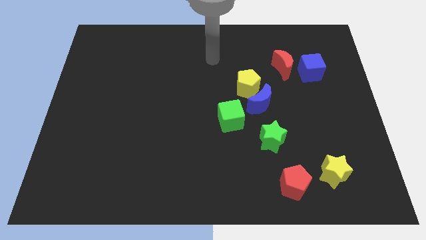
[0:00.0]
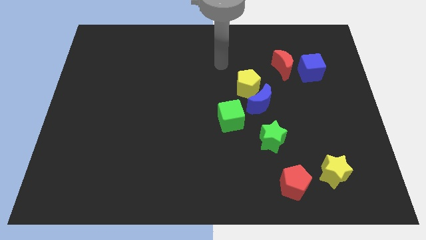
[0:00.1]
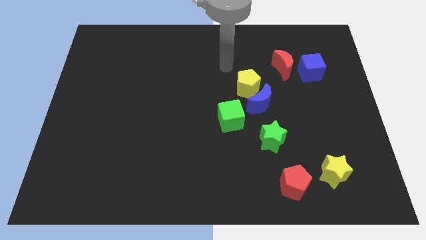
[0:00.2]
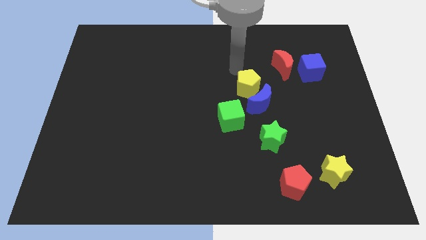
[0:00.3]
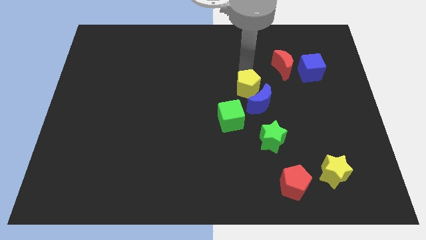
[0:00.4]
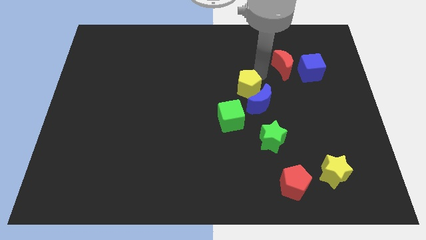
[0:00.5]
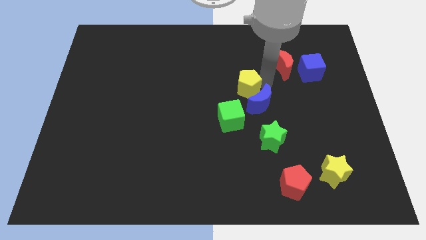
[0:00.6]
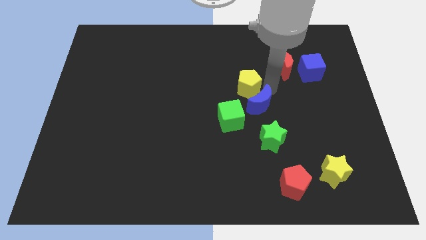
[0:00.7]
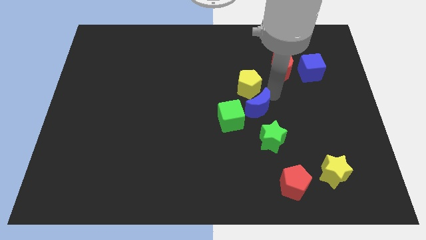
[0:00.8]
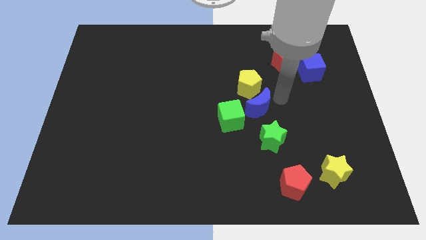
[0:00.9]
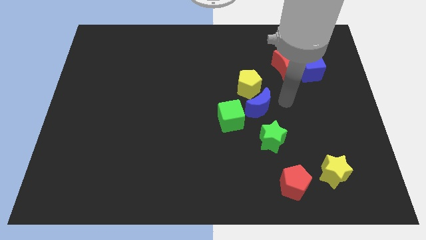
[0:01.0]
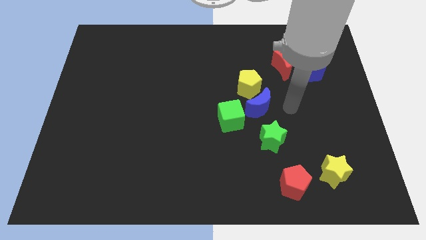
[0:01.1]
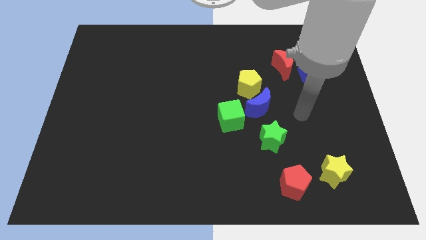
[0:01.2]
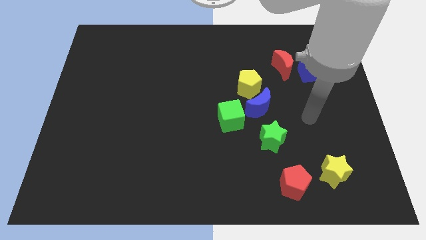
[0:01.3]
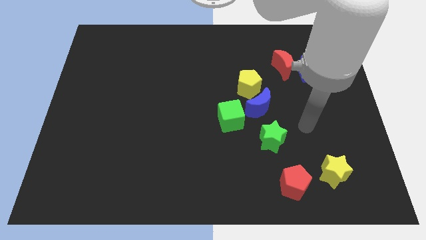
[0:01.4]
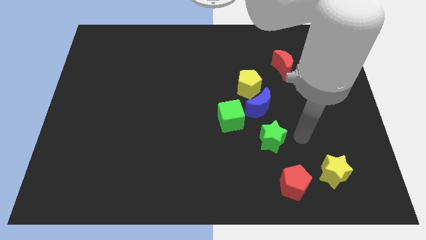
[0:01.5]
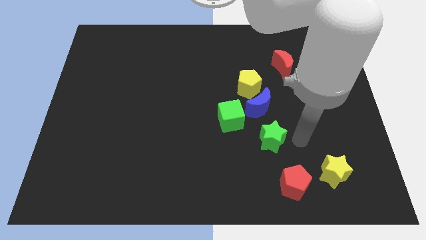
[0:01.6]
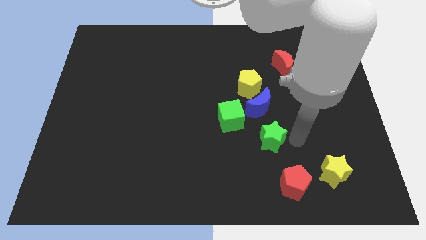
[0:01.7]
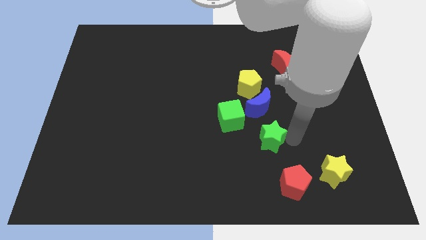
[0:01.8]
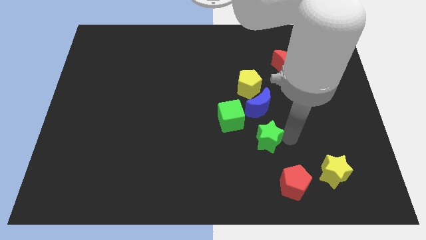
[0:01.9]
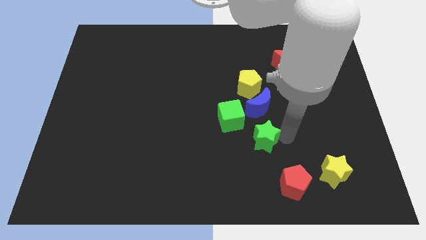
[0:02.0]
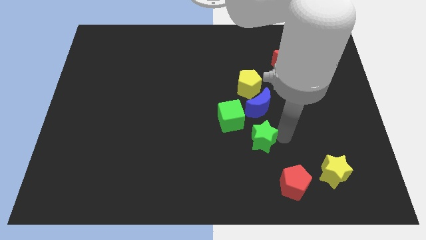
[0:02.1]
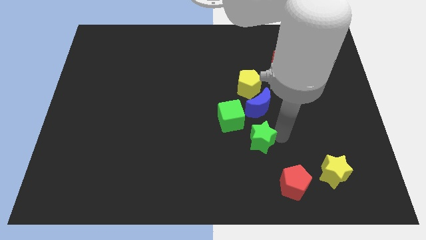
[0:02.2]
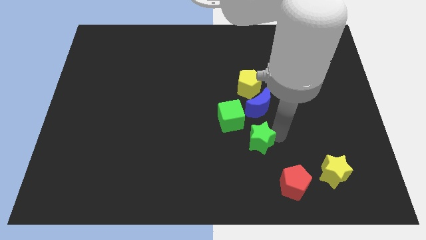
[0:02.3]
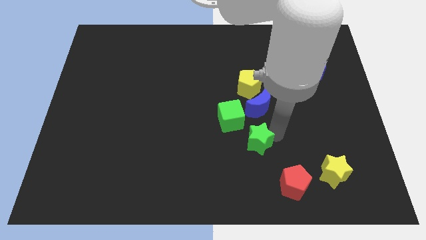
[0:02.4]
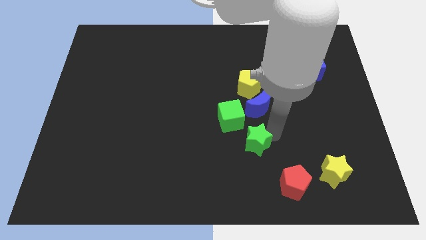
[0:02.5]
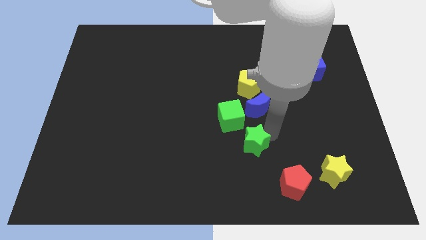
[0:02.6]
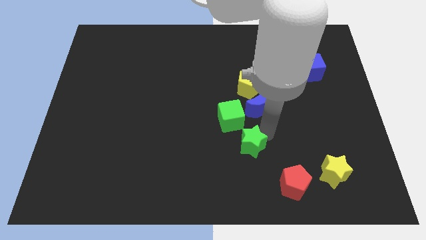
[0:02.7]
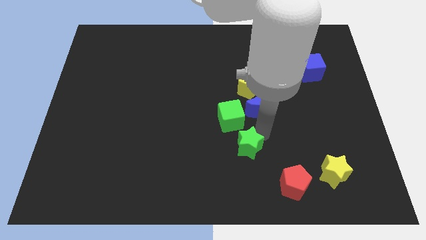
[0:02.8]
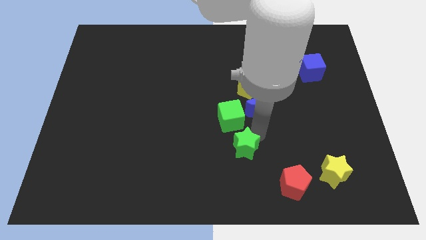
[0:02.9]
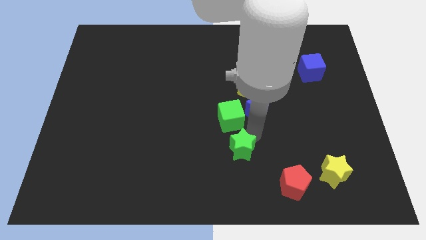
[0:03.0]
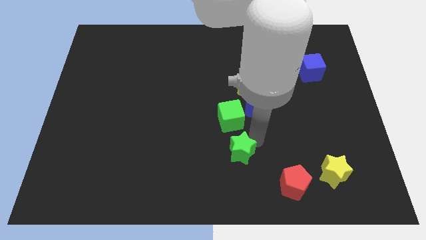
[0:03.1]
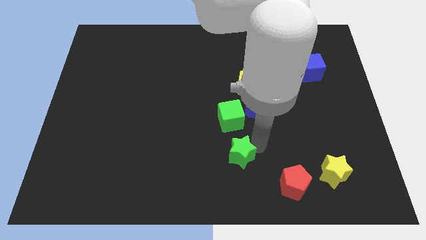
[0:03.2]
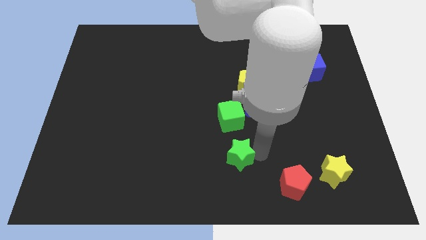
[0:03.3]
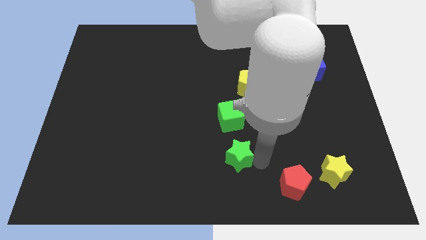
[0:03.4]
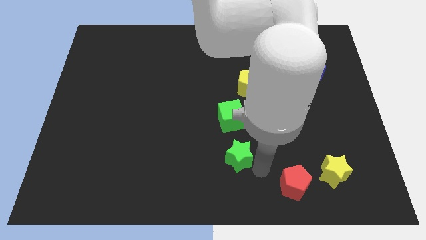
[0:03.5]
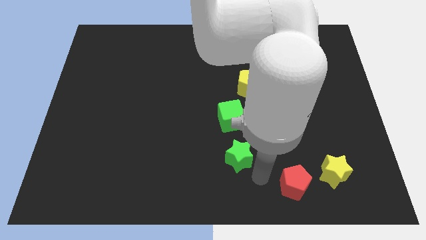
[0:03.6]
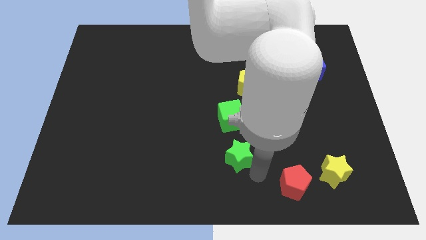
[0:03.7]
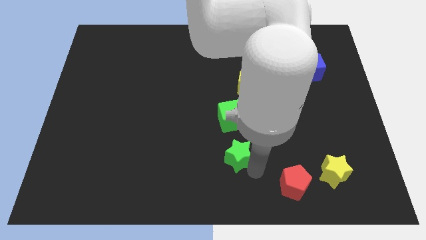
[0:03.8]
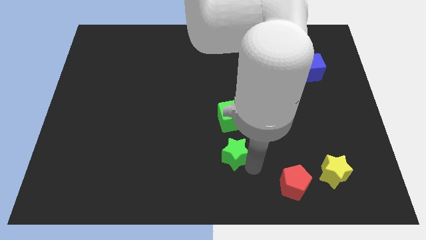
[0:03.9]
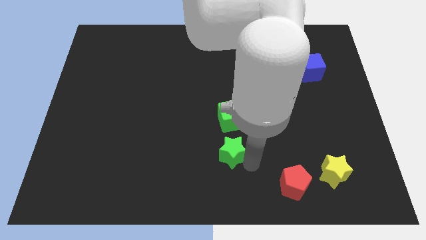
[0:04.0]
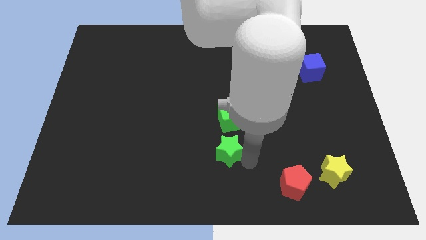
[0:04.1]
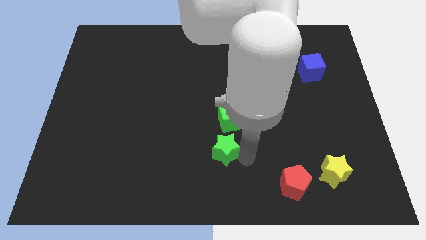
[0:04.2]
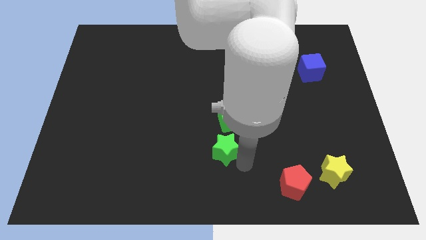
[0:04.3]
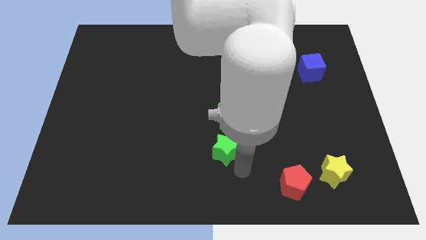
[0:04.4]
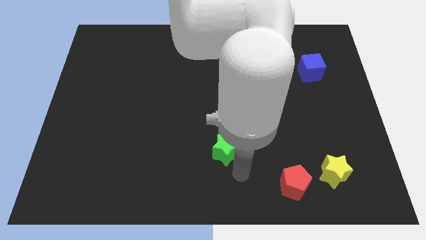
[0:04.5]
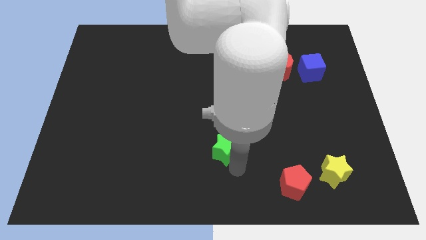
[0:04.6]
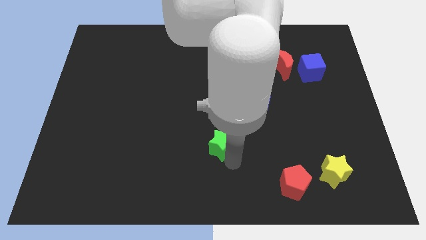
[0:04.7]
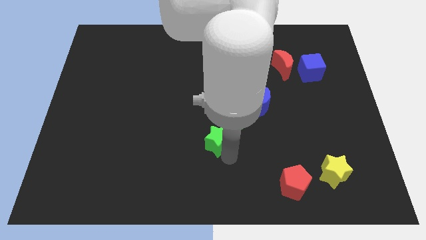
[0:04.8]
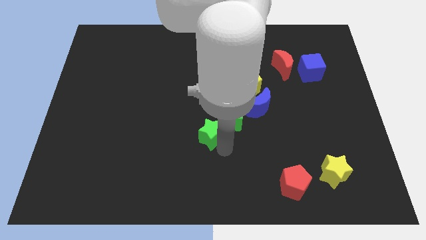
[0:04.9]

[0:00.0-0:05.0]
slide the green star left of the green cube

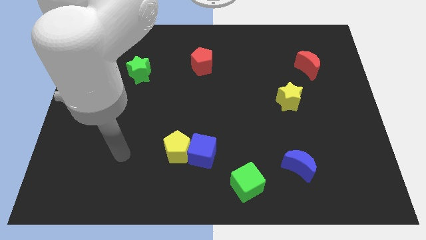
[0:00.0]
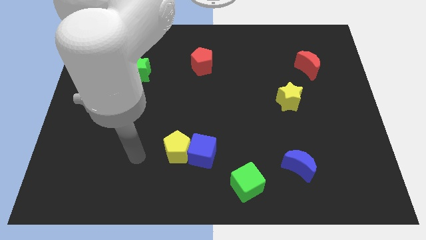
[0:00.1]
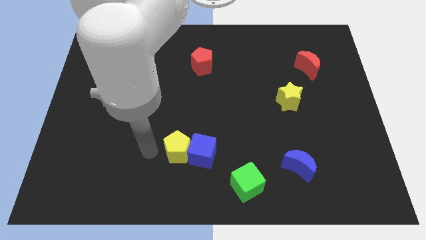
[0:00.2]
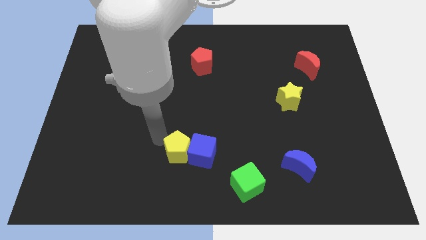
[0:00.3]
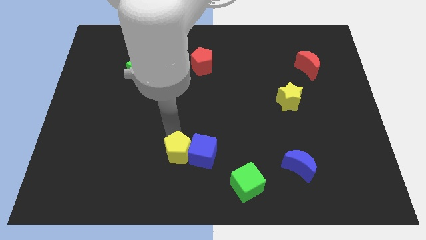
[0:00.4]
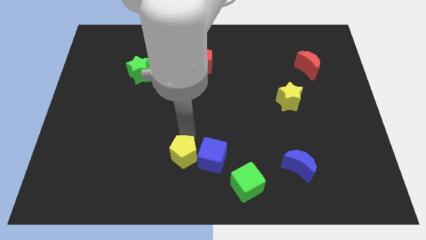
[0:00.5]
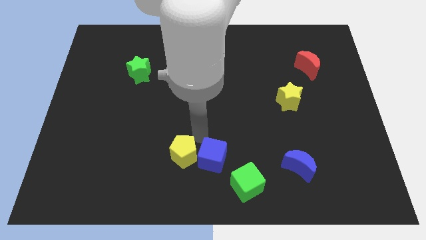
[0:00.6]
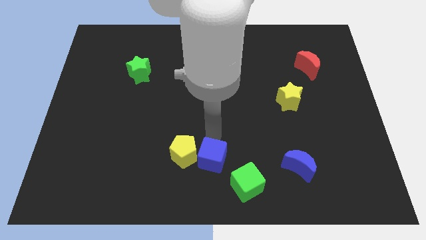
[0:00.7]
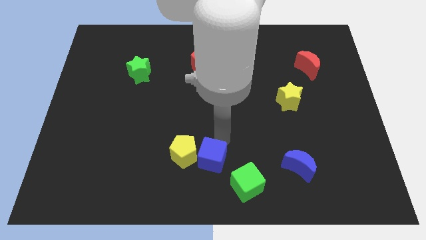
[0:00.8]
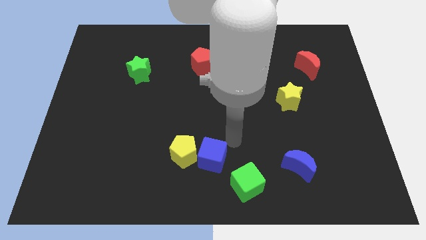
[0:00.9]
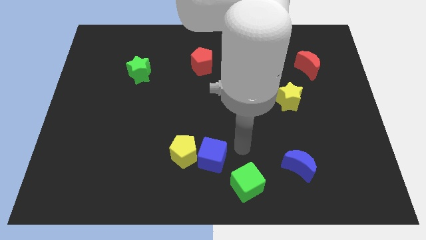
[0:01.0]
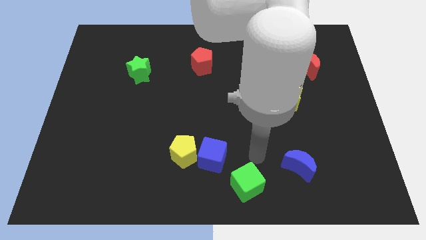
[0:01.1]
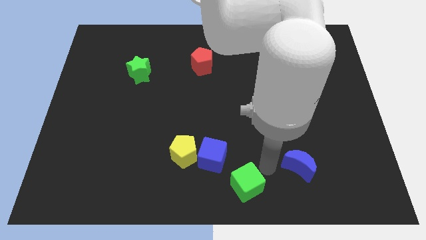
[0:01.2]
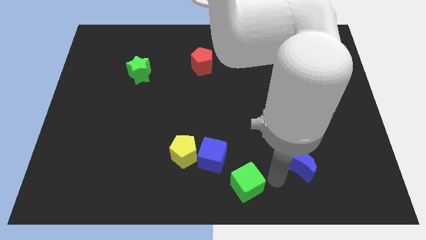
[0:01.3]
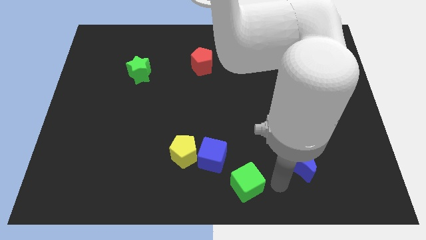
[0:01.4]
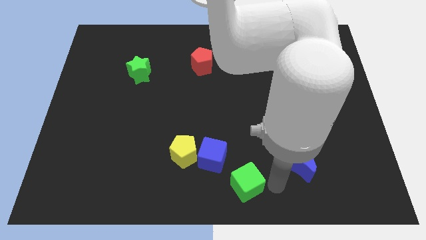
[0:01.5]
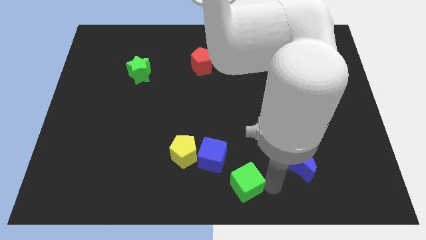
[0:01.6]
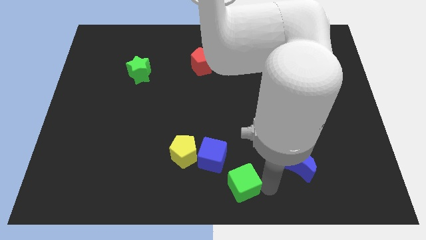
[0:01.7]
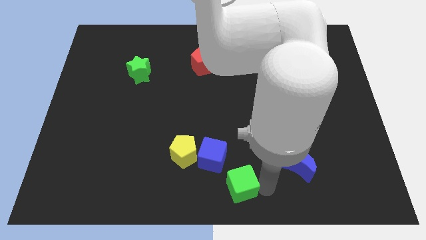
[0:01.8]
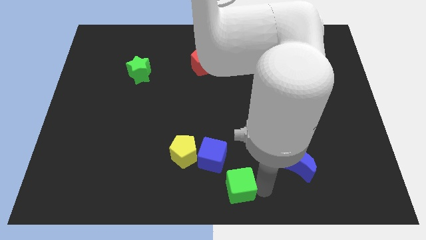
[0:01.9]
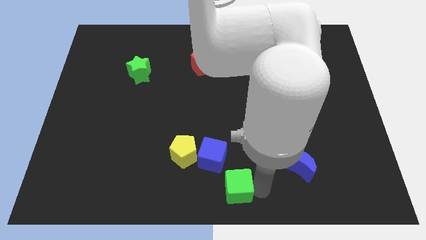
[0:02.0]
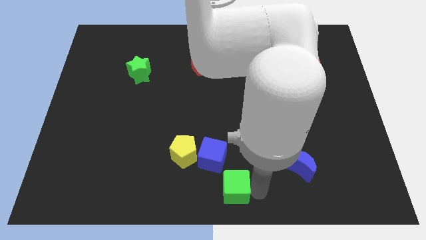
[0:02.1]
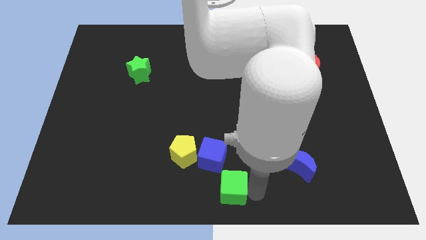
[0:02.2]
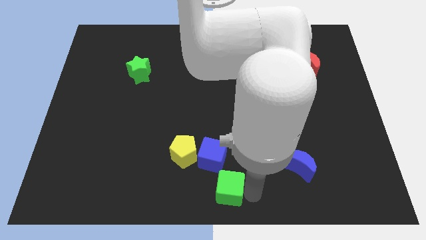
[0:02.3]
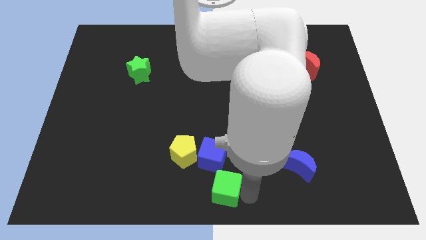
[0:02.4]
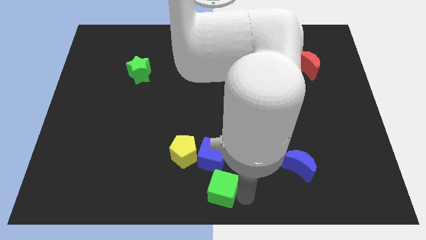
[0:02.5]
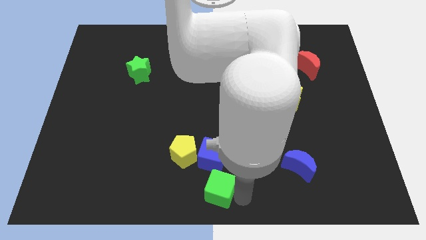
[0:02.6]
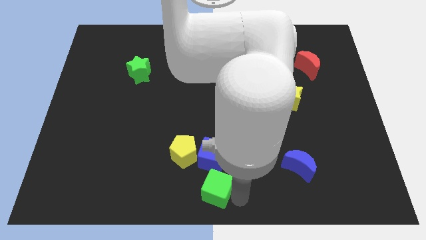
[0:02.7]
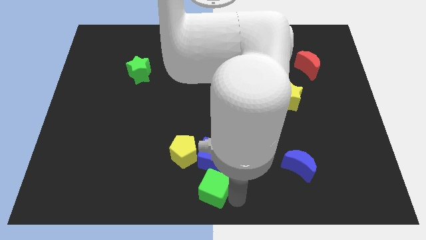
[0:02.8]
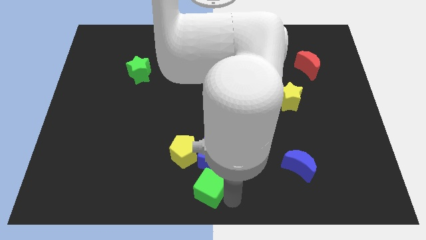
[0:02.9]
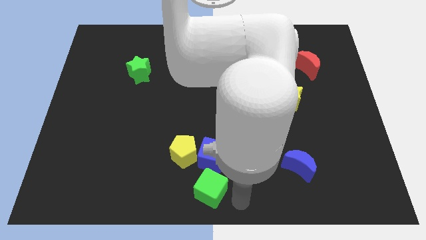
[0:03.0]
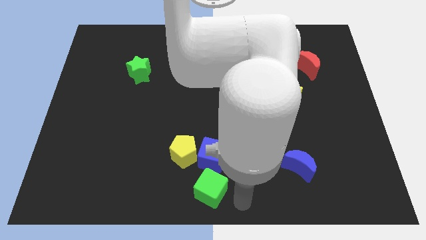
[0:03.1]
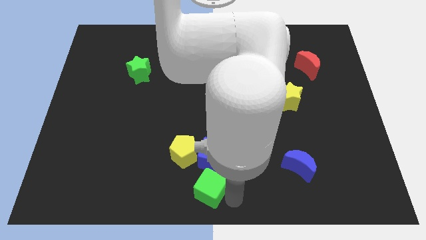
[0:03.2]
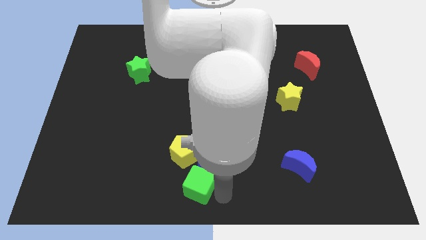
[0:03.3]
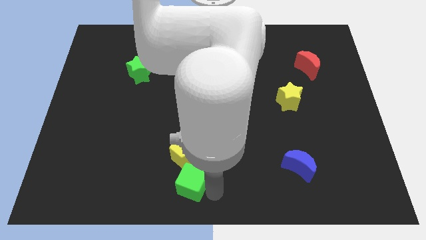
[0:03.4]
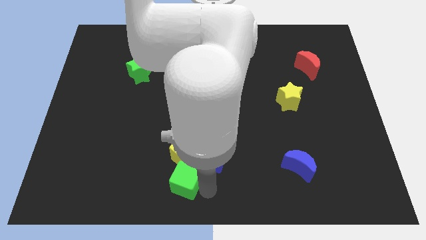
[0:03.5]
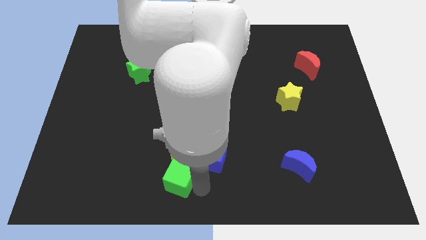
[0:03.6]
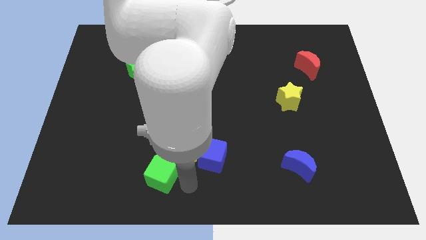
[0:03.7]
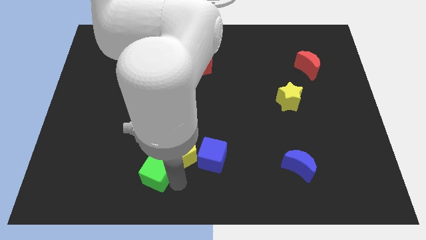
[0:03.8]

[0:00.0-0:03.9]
slide the green cube left of the yellow pentagon
